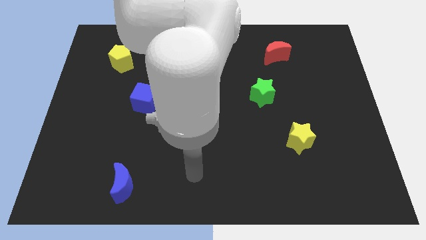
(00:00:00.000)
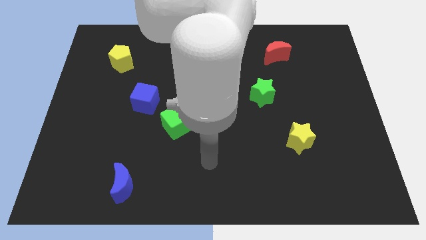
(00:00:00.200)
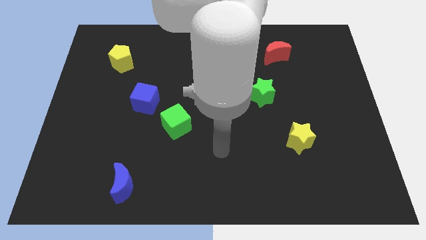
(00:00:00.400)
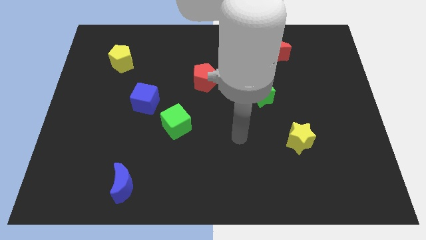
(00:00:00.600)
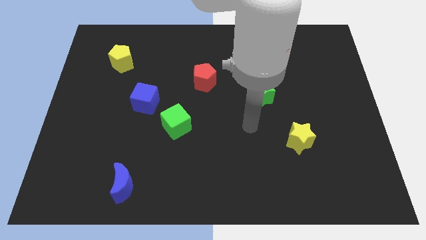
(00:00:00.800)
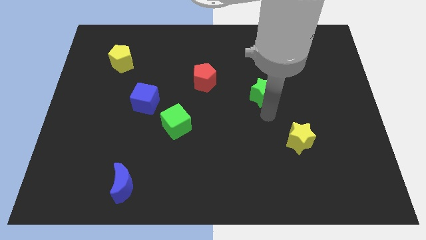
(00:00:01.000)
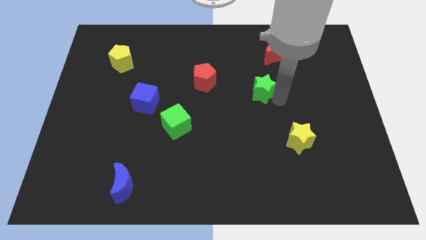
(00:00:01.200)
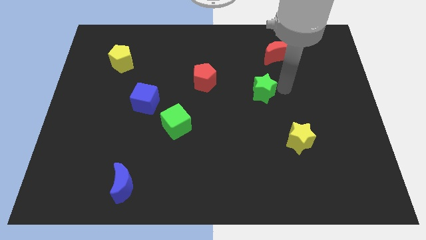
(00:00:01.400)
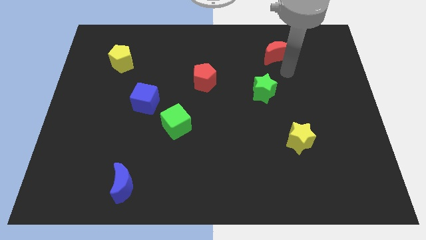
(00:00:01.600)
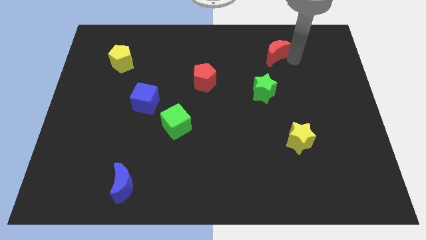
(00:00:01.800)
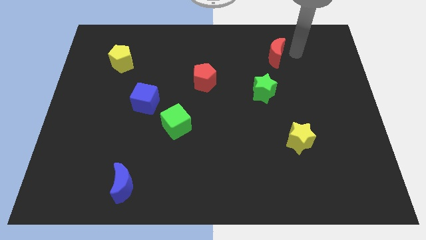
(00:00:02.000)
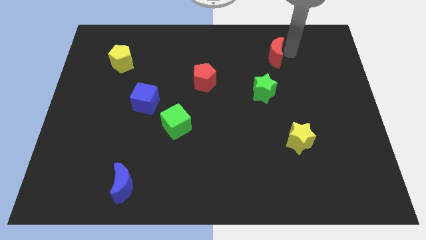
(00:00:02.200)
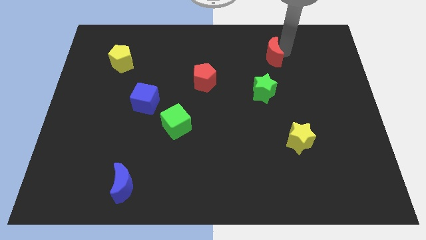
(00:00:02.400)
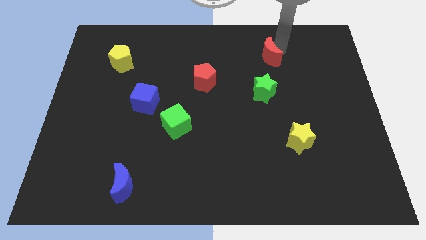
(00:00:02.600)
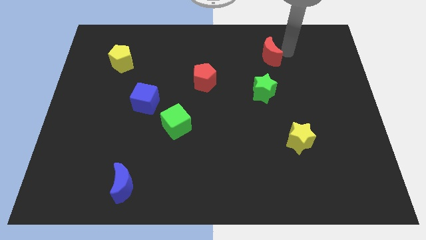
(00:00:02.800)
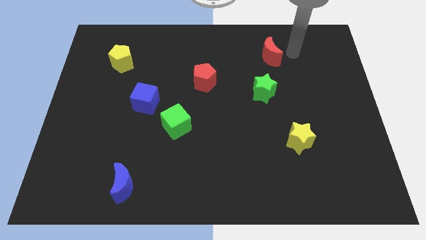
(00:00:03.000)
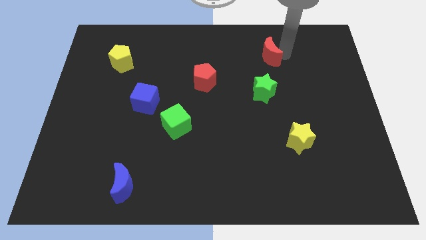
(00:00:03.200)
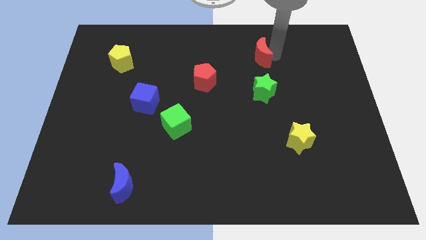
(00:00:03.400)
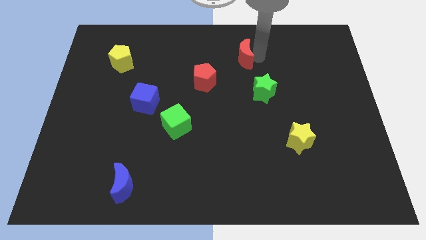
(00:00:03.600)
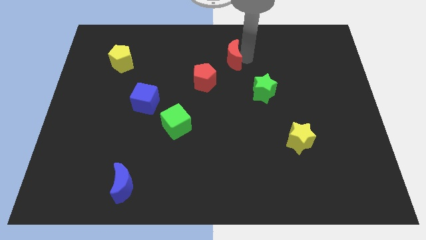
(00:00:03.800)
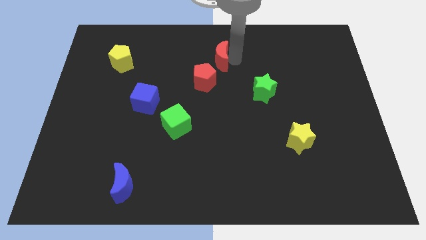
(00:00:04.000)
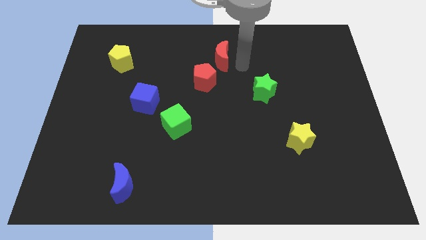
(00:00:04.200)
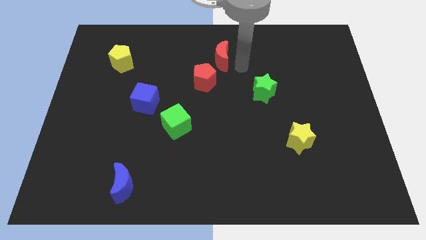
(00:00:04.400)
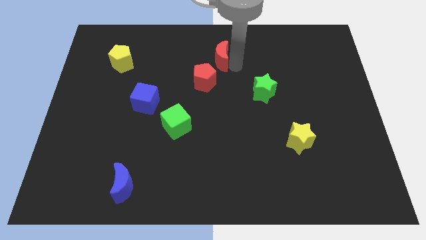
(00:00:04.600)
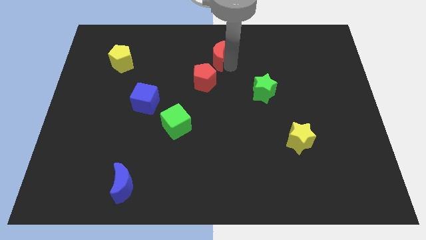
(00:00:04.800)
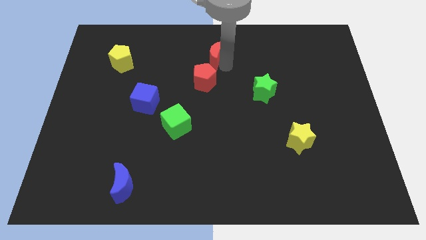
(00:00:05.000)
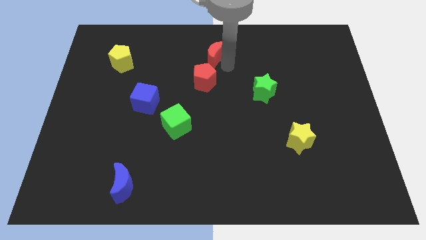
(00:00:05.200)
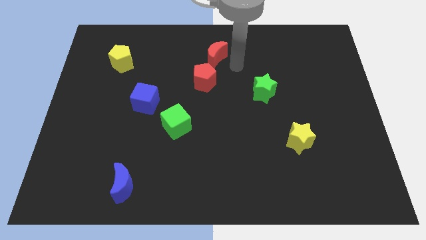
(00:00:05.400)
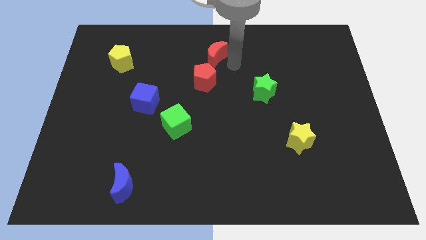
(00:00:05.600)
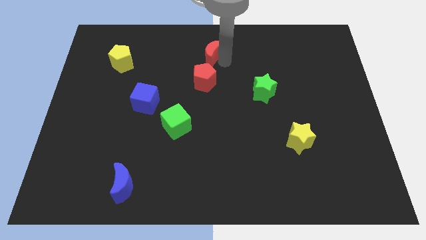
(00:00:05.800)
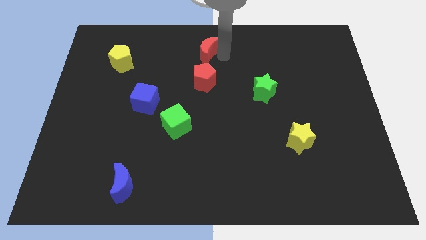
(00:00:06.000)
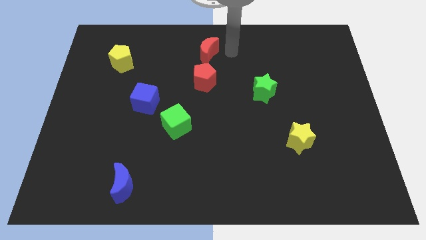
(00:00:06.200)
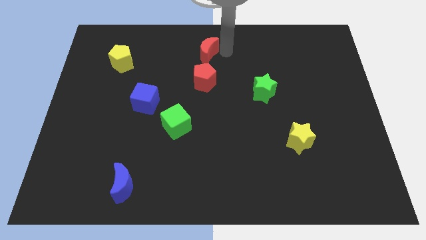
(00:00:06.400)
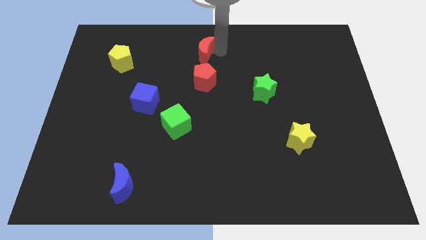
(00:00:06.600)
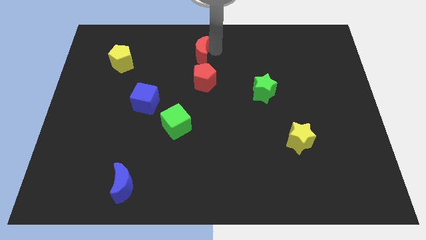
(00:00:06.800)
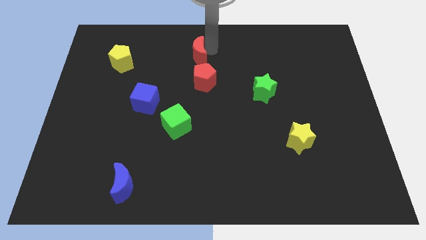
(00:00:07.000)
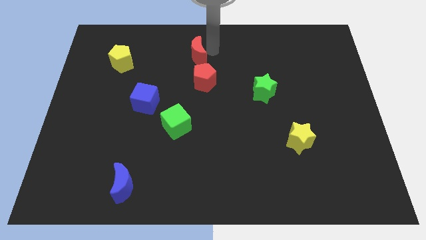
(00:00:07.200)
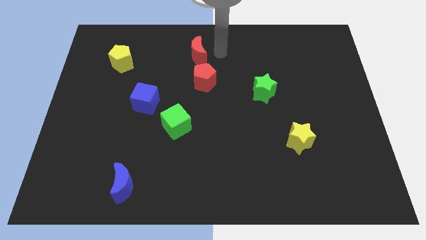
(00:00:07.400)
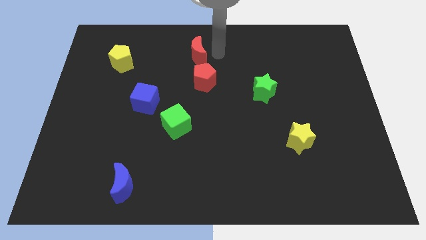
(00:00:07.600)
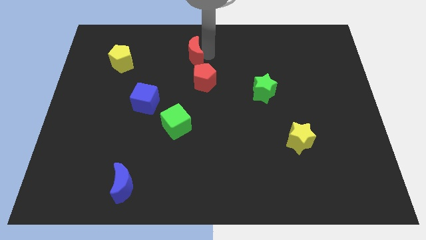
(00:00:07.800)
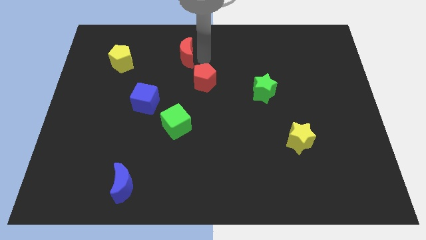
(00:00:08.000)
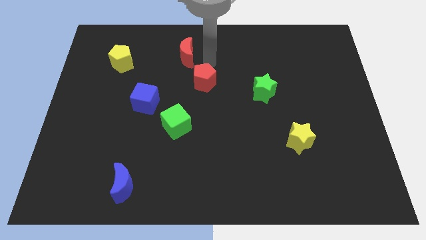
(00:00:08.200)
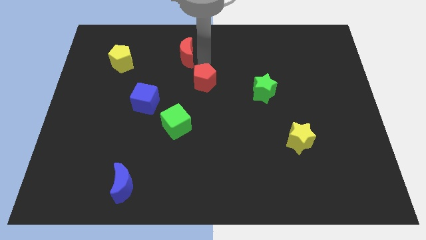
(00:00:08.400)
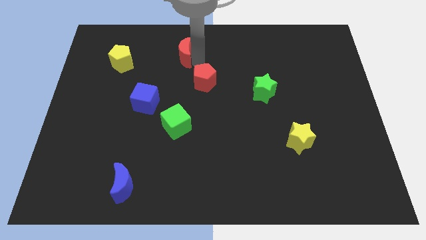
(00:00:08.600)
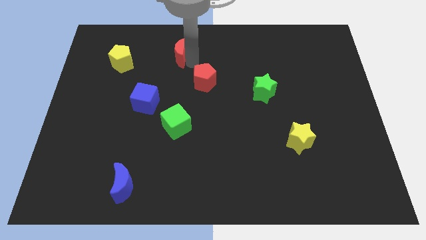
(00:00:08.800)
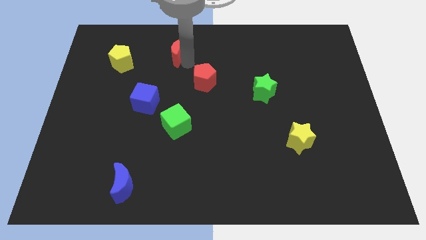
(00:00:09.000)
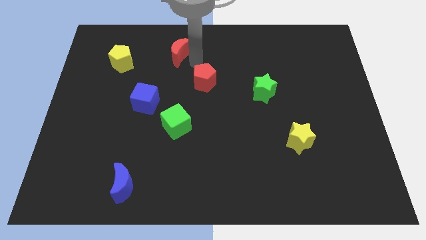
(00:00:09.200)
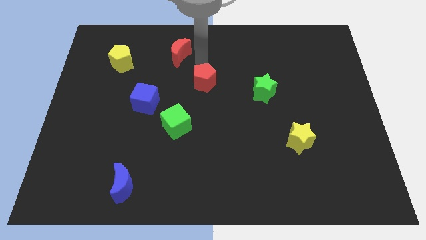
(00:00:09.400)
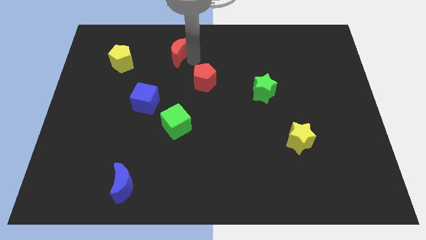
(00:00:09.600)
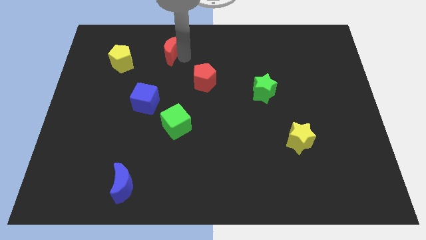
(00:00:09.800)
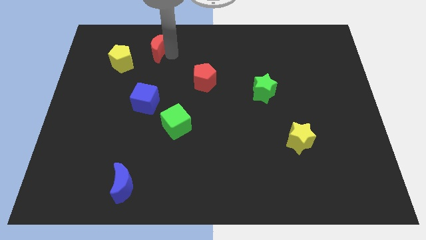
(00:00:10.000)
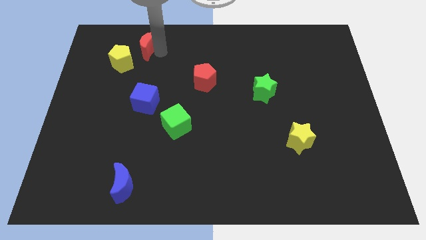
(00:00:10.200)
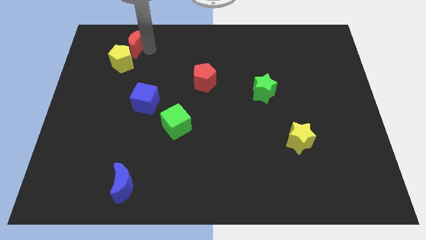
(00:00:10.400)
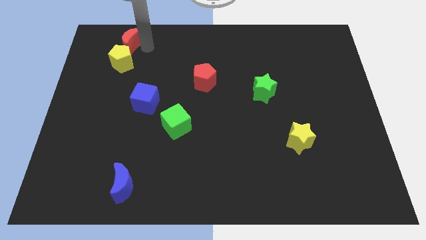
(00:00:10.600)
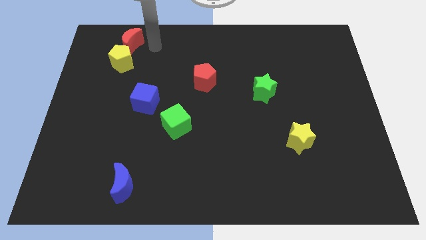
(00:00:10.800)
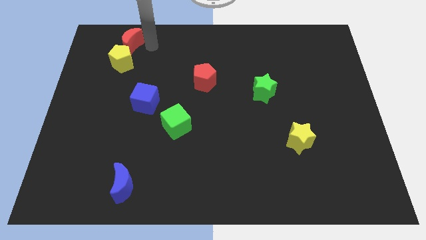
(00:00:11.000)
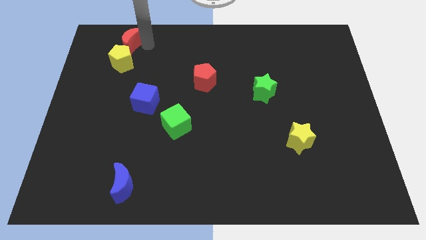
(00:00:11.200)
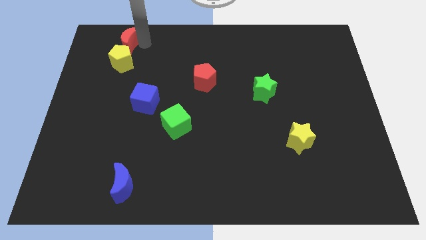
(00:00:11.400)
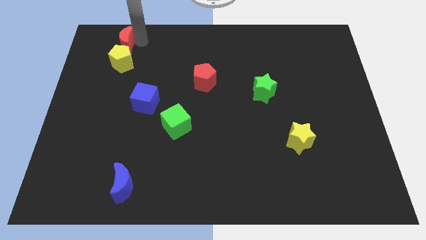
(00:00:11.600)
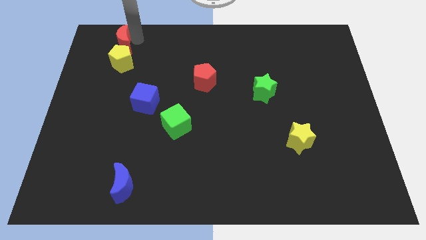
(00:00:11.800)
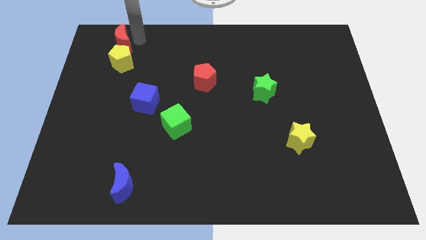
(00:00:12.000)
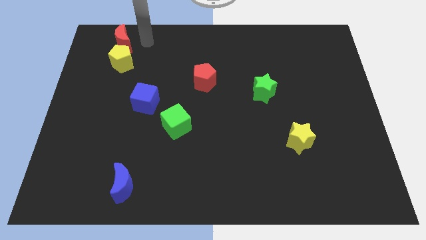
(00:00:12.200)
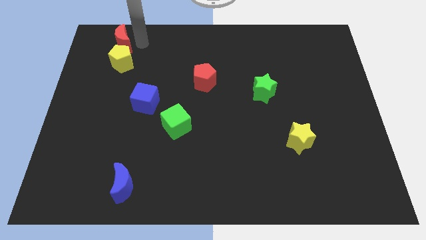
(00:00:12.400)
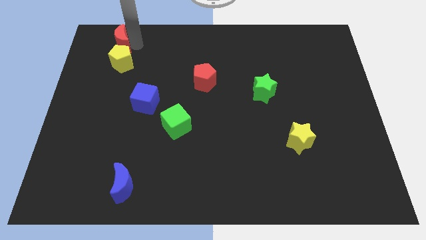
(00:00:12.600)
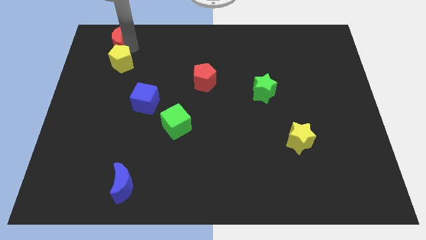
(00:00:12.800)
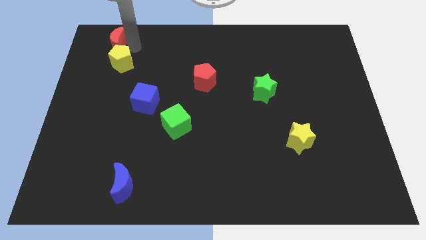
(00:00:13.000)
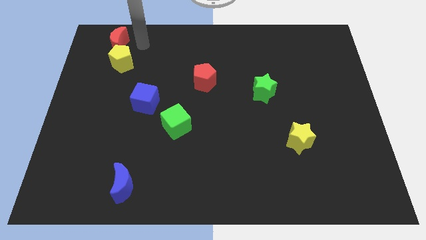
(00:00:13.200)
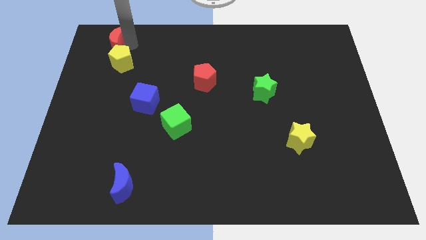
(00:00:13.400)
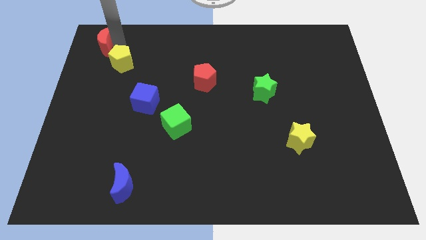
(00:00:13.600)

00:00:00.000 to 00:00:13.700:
slide the red moon to the top left of the board
